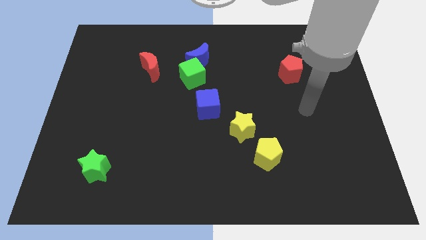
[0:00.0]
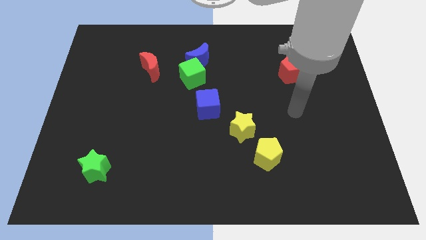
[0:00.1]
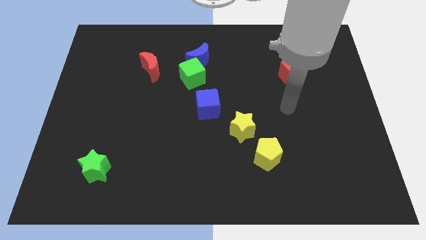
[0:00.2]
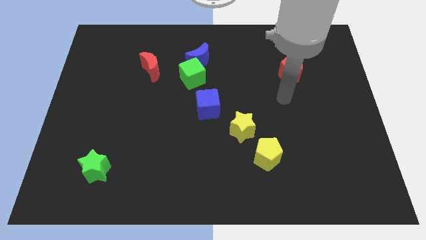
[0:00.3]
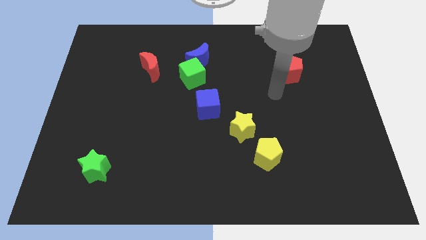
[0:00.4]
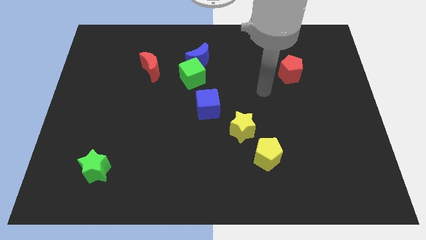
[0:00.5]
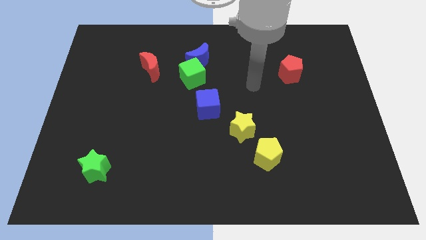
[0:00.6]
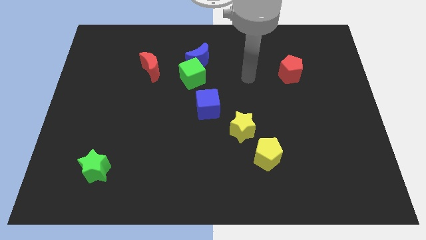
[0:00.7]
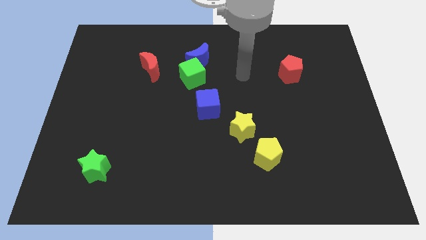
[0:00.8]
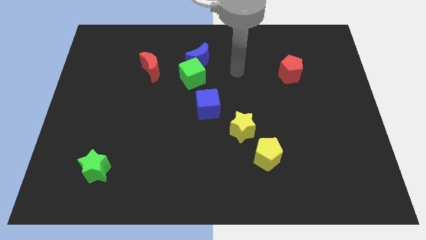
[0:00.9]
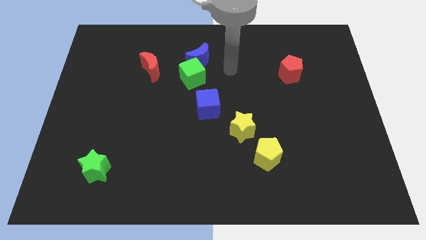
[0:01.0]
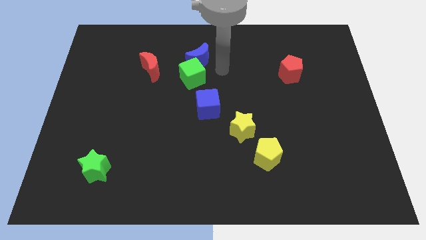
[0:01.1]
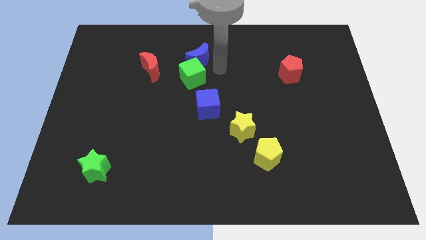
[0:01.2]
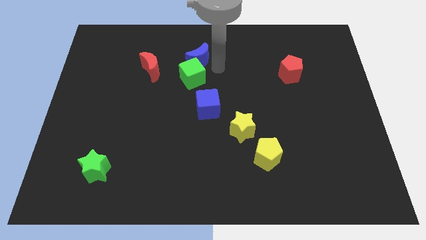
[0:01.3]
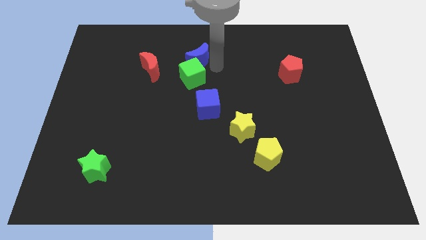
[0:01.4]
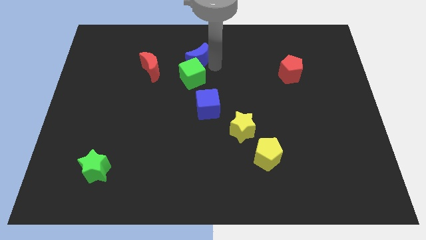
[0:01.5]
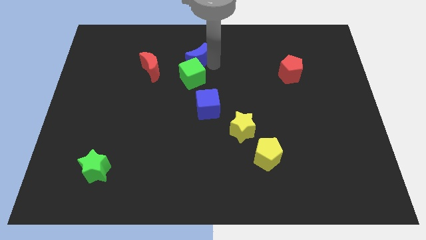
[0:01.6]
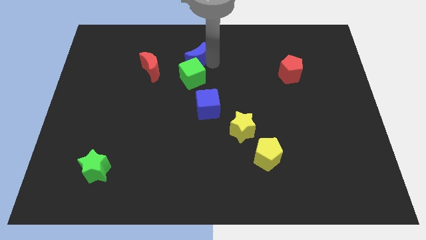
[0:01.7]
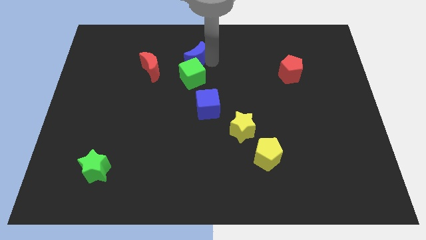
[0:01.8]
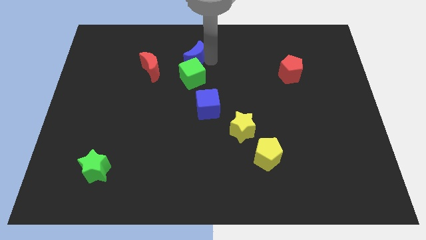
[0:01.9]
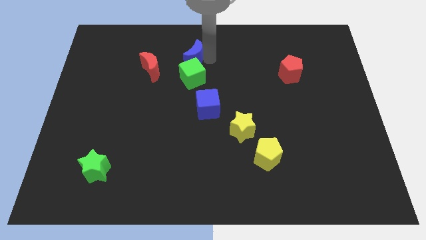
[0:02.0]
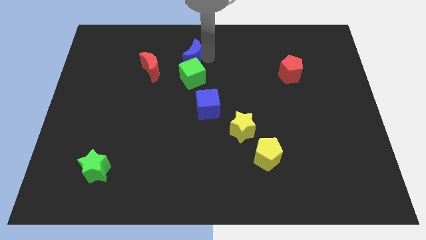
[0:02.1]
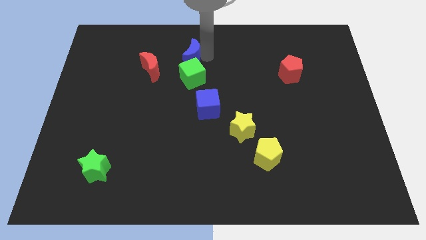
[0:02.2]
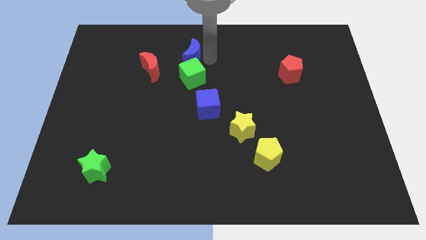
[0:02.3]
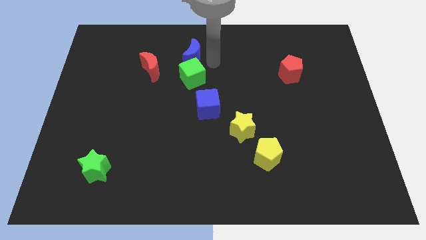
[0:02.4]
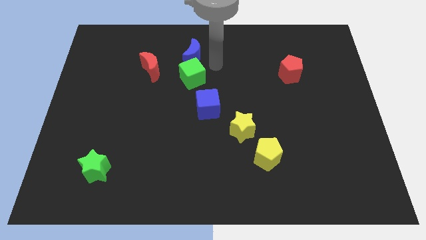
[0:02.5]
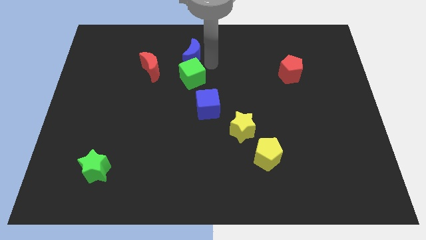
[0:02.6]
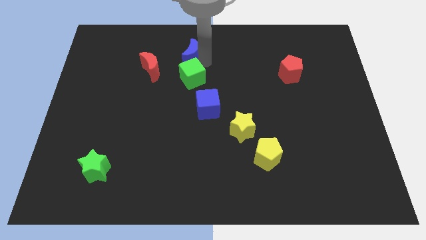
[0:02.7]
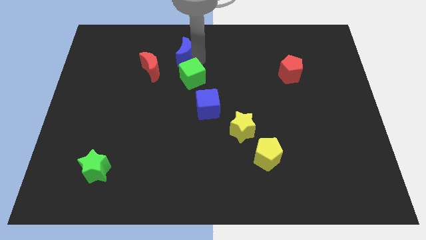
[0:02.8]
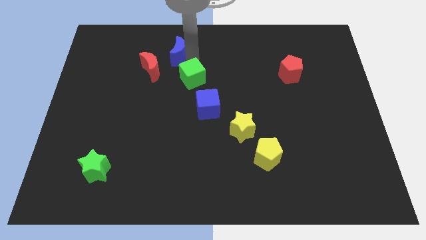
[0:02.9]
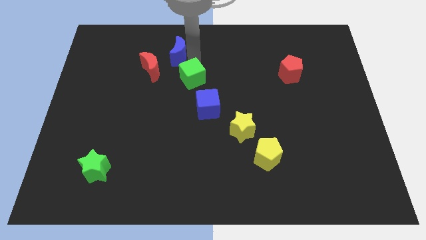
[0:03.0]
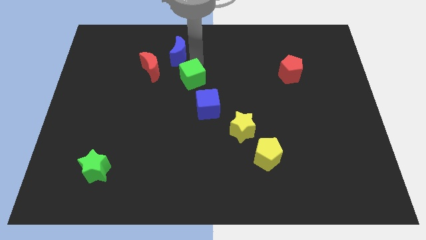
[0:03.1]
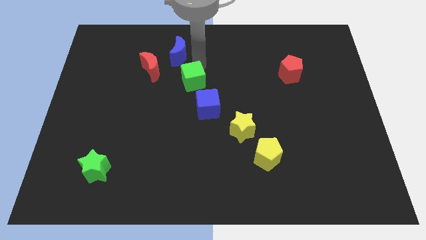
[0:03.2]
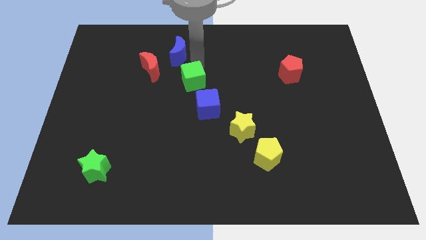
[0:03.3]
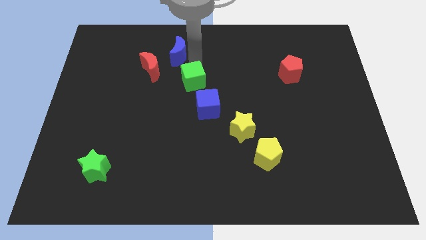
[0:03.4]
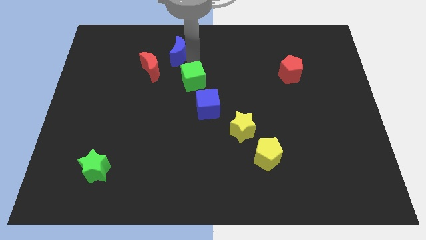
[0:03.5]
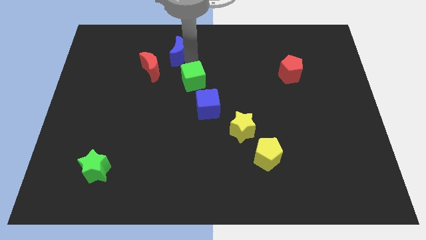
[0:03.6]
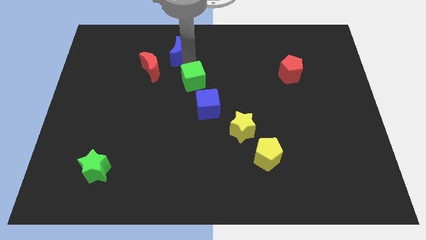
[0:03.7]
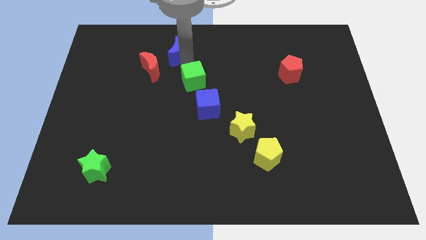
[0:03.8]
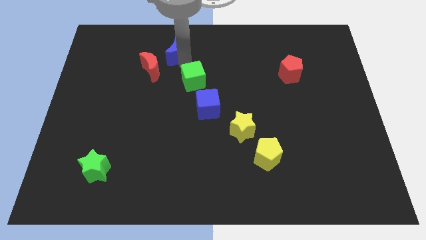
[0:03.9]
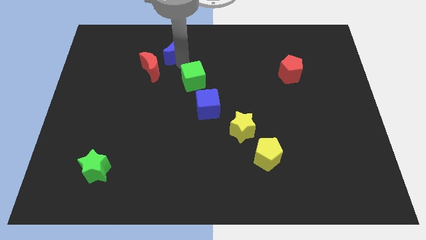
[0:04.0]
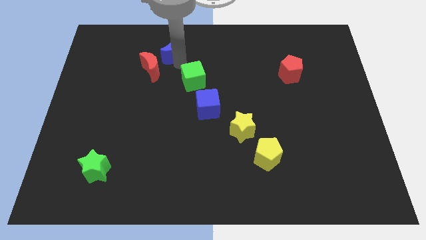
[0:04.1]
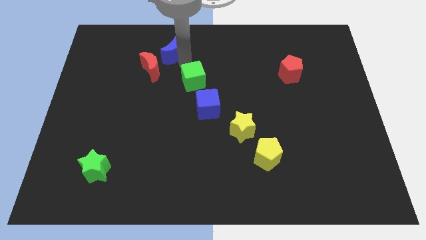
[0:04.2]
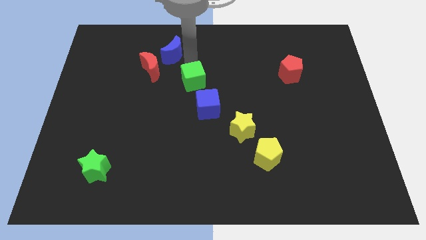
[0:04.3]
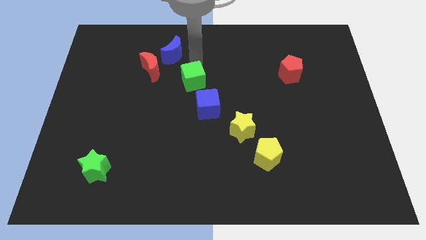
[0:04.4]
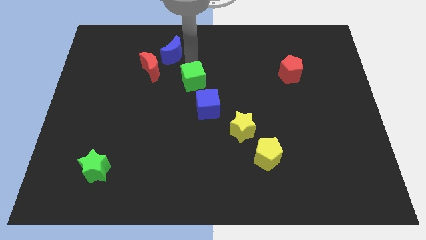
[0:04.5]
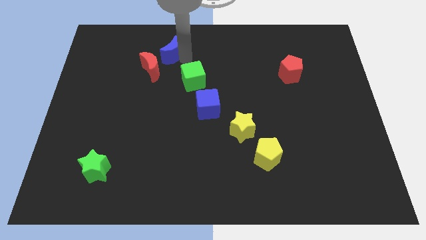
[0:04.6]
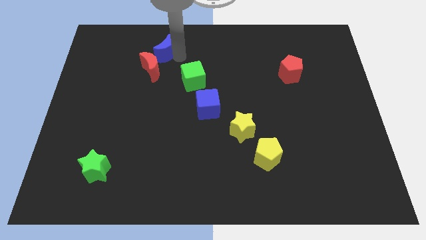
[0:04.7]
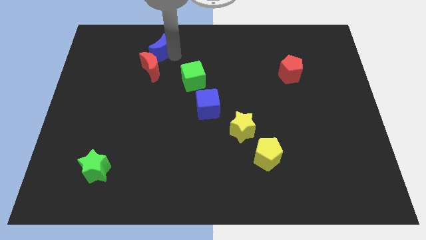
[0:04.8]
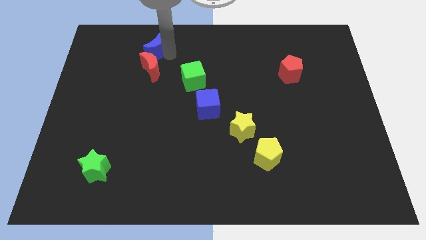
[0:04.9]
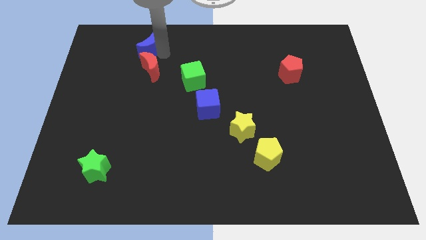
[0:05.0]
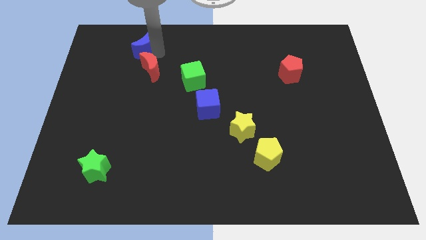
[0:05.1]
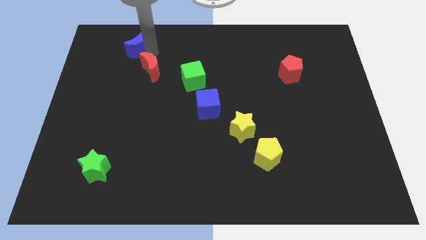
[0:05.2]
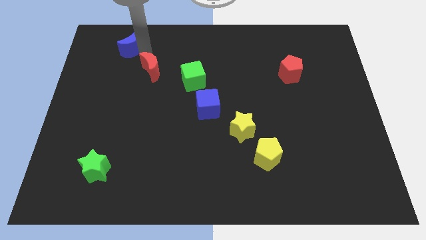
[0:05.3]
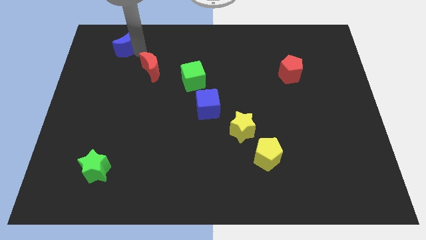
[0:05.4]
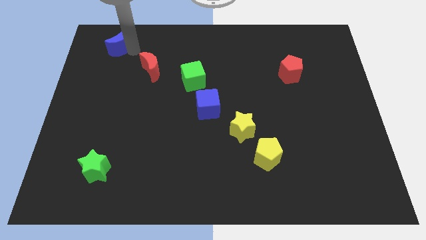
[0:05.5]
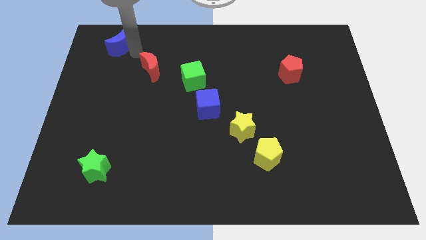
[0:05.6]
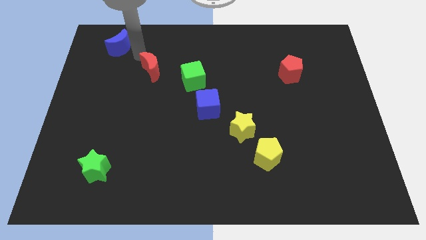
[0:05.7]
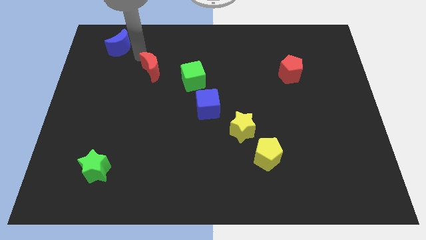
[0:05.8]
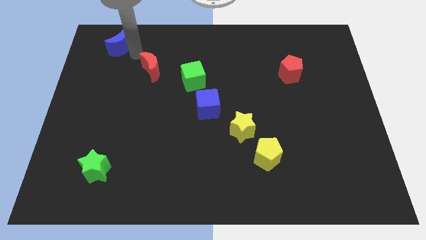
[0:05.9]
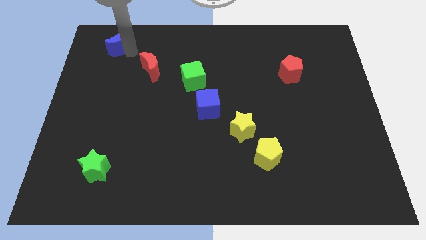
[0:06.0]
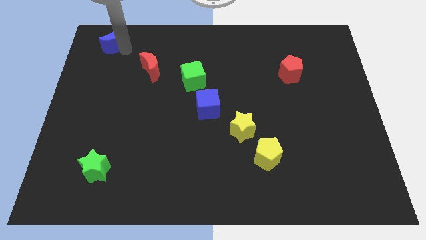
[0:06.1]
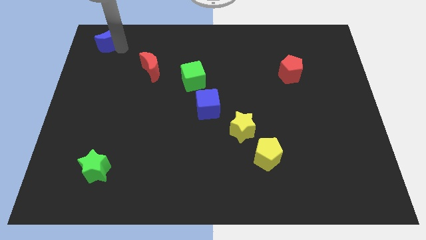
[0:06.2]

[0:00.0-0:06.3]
slide the blue moon to the top left corner

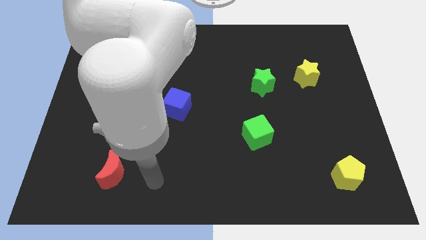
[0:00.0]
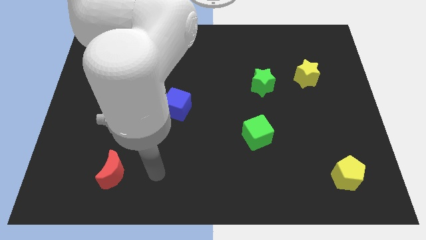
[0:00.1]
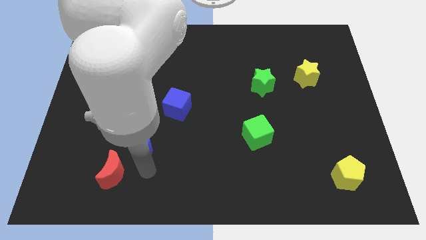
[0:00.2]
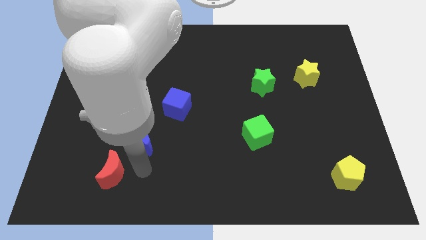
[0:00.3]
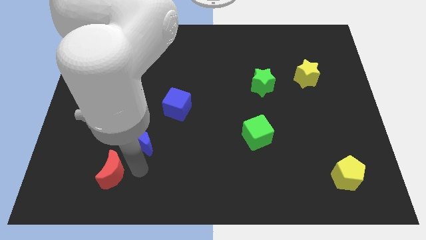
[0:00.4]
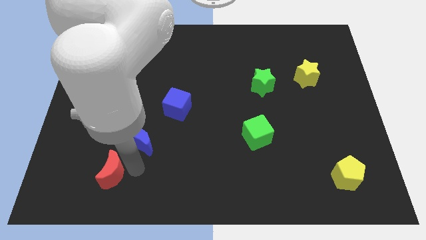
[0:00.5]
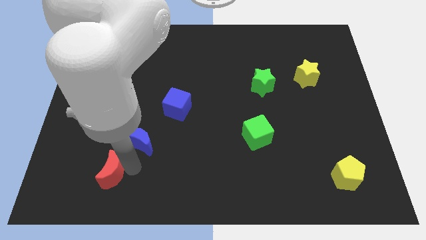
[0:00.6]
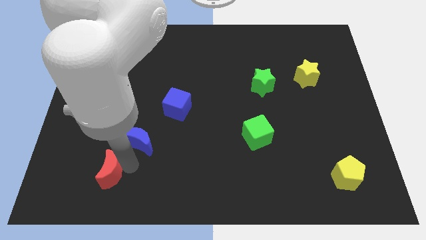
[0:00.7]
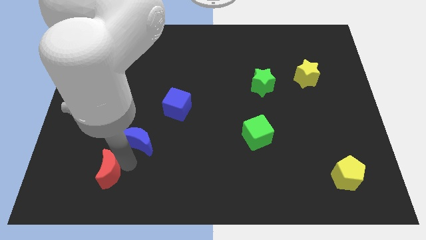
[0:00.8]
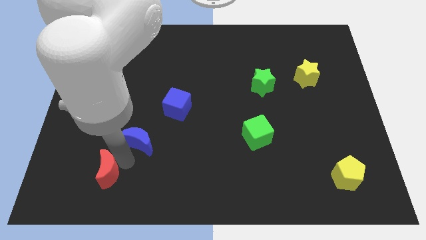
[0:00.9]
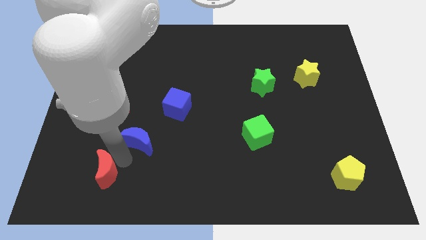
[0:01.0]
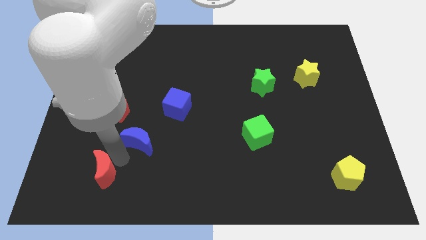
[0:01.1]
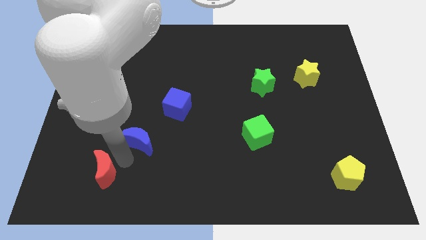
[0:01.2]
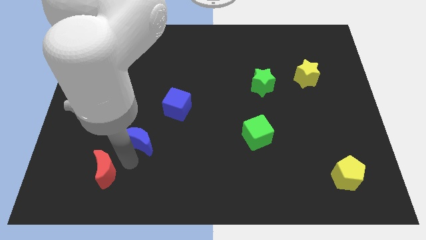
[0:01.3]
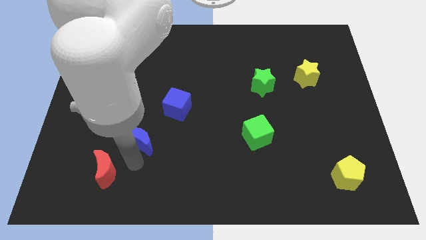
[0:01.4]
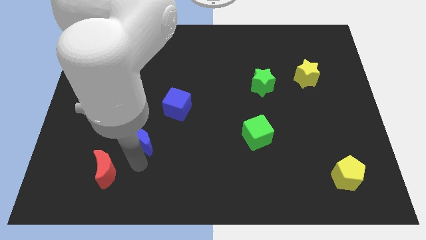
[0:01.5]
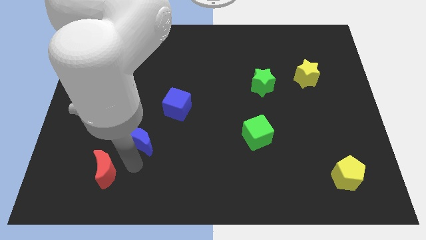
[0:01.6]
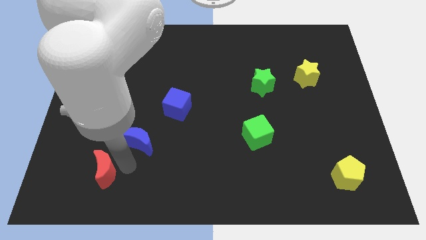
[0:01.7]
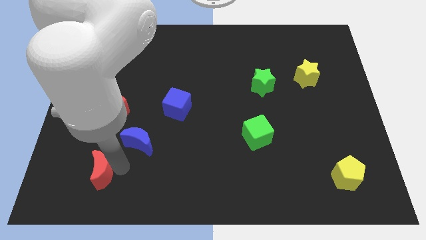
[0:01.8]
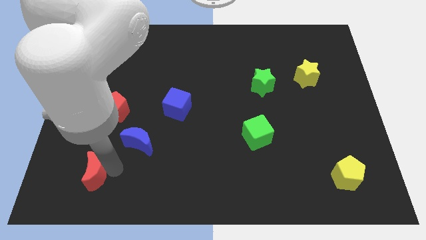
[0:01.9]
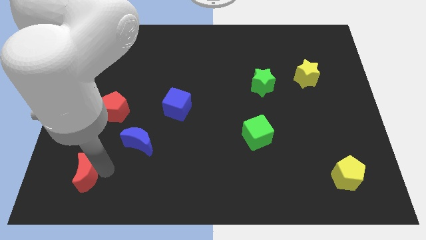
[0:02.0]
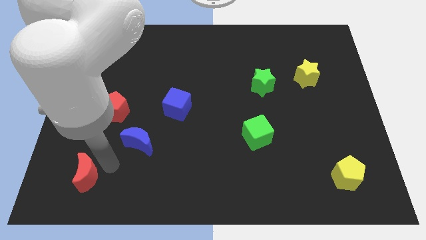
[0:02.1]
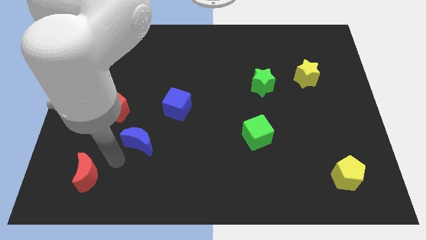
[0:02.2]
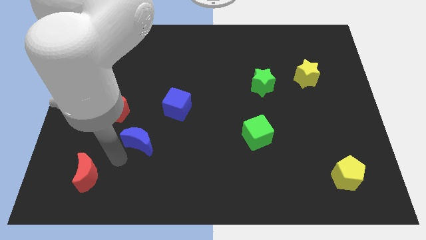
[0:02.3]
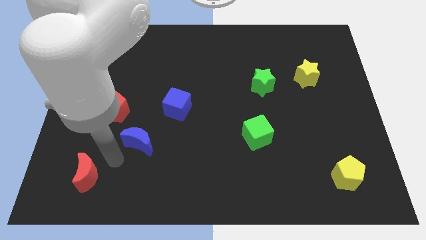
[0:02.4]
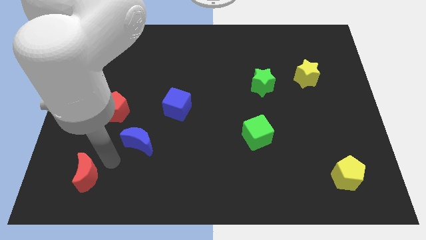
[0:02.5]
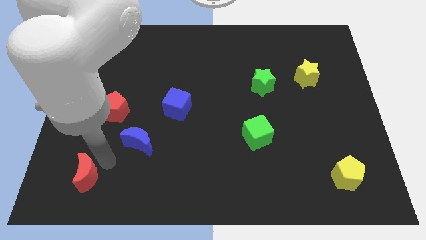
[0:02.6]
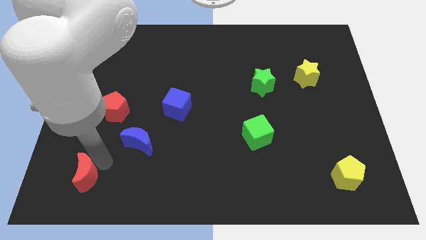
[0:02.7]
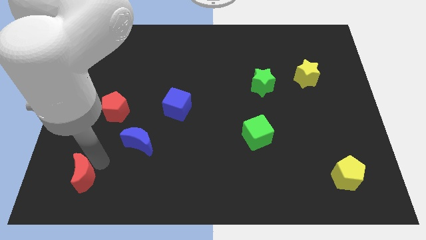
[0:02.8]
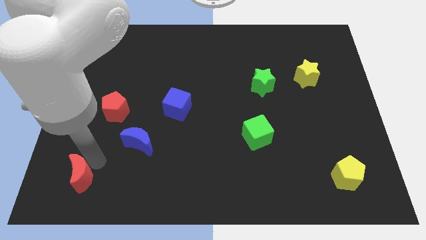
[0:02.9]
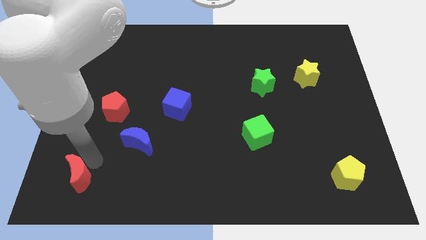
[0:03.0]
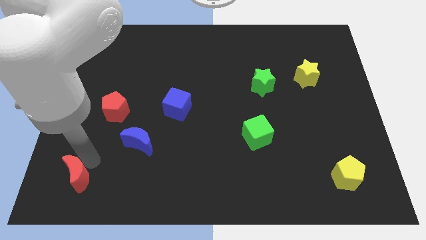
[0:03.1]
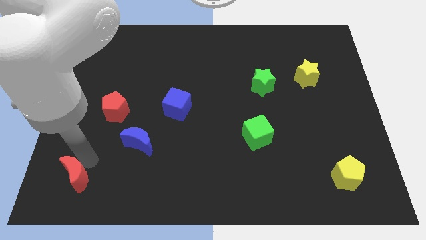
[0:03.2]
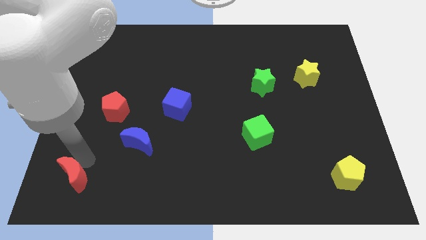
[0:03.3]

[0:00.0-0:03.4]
move the red moon to the bottom left corner
